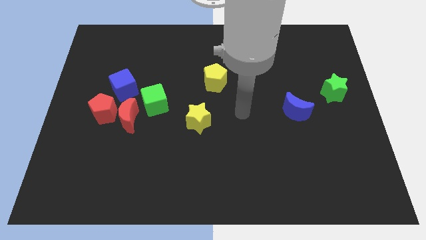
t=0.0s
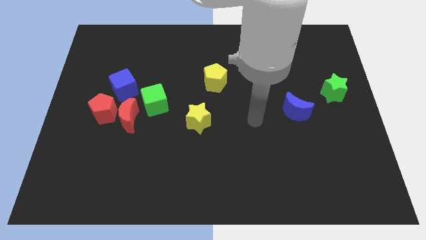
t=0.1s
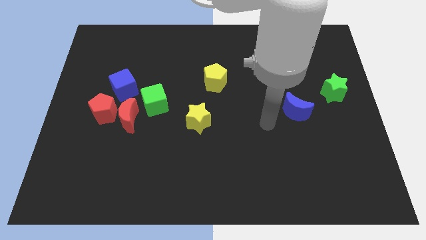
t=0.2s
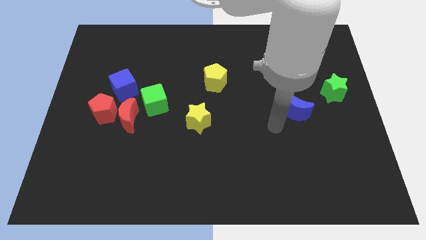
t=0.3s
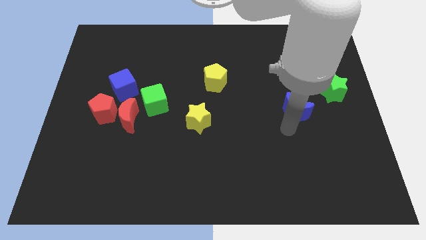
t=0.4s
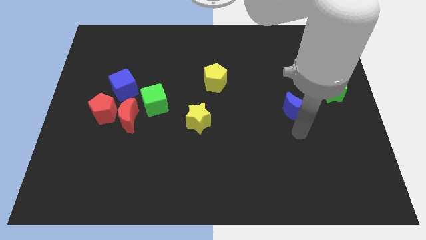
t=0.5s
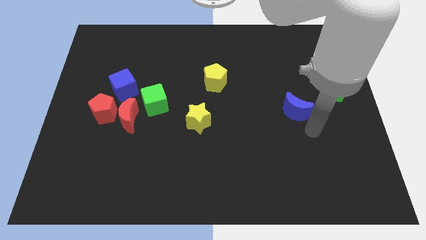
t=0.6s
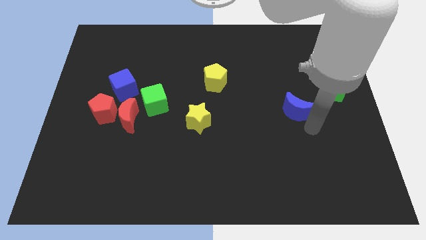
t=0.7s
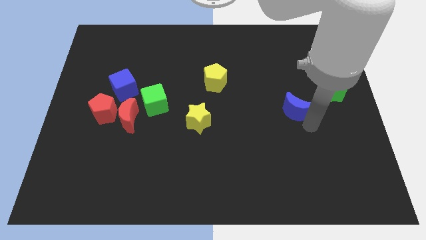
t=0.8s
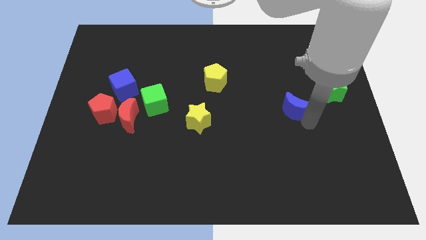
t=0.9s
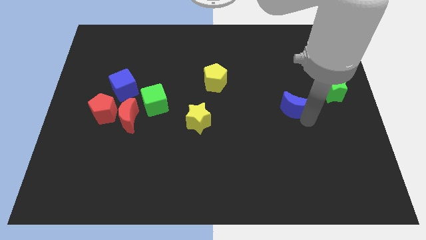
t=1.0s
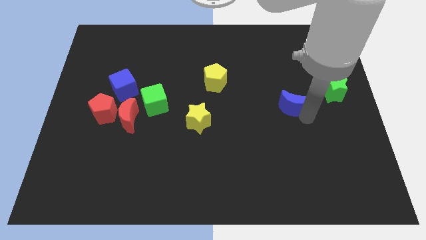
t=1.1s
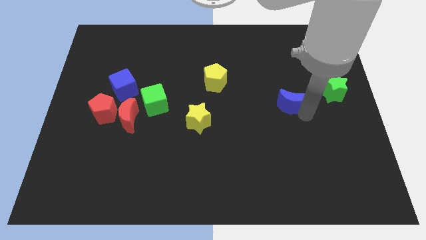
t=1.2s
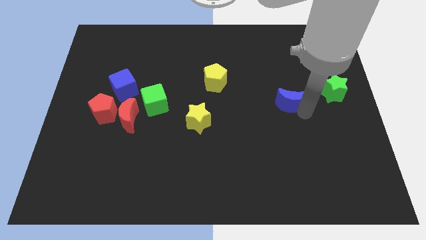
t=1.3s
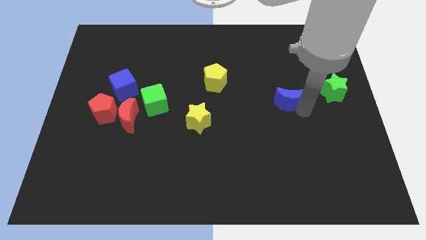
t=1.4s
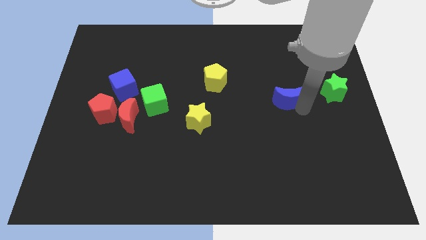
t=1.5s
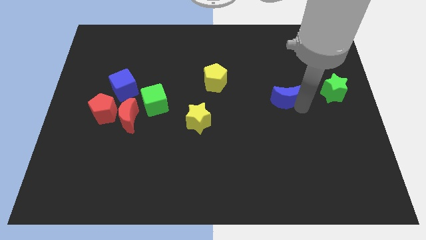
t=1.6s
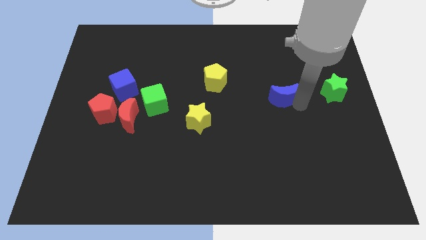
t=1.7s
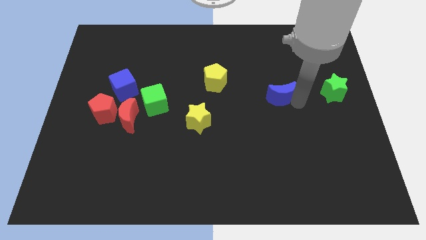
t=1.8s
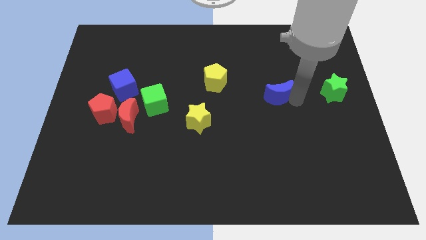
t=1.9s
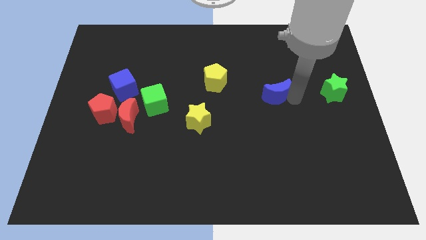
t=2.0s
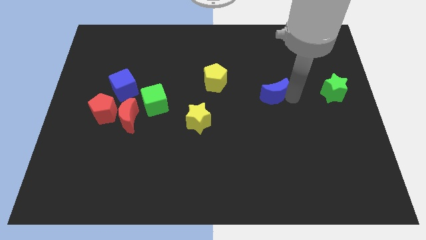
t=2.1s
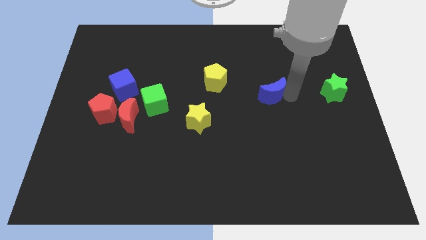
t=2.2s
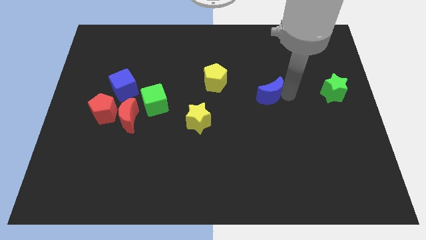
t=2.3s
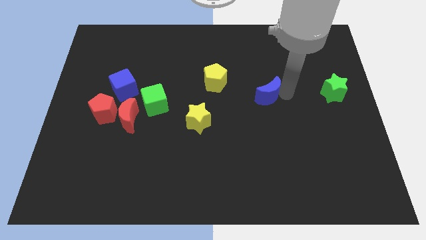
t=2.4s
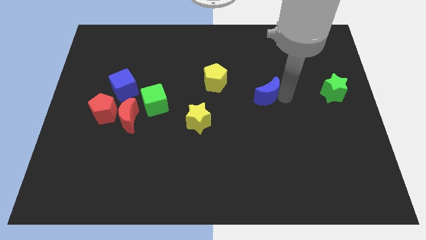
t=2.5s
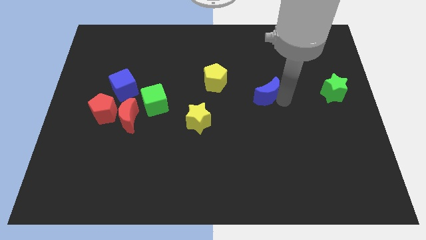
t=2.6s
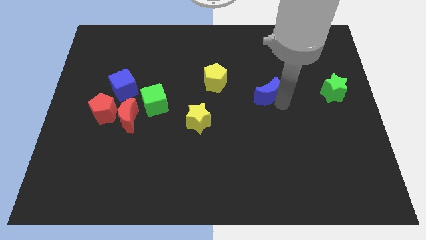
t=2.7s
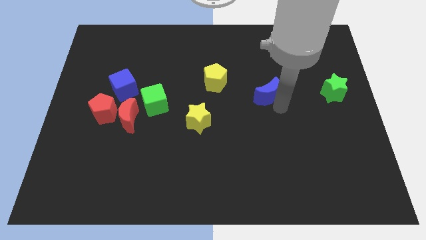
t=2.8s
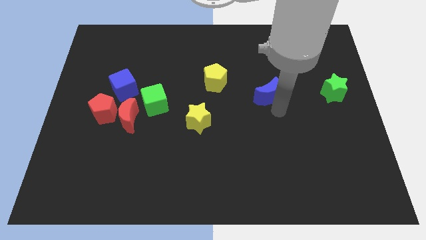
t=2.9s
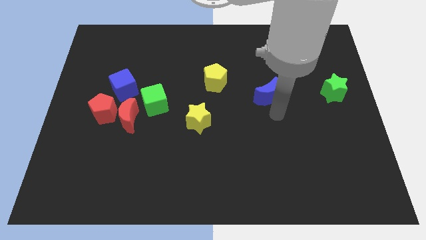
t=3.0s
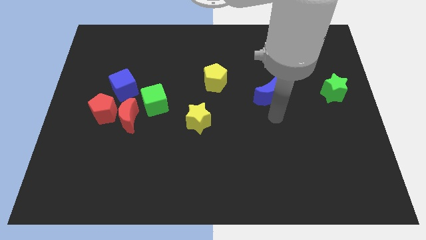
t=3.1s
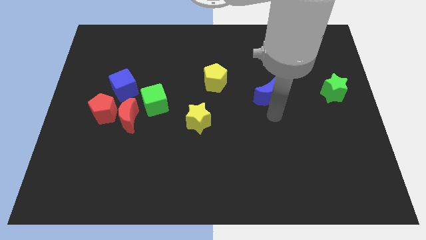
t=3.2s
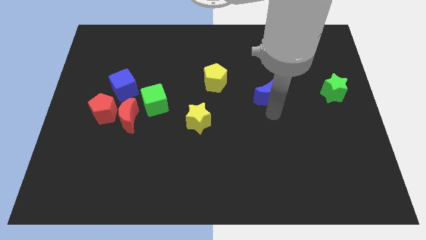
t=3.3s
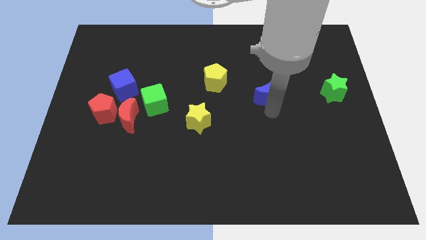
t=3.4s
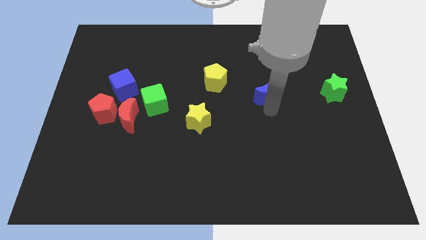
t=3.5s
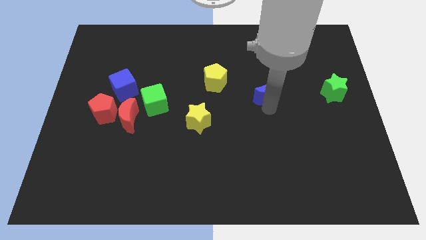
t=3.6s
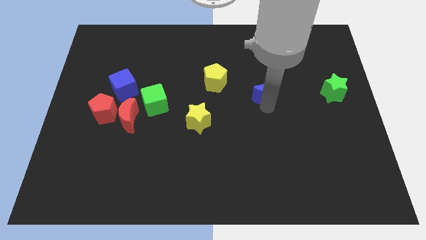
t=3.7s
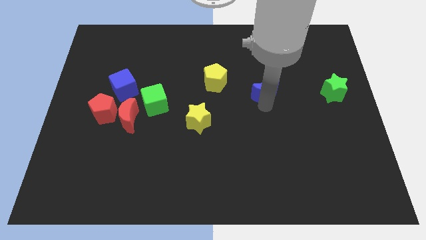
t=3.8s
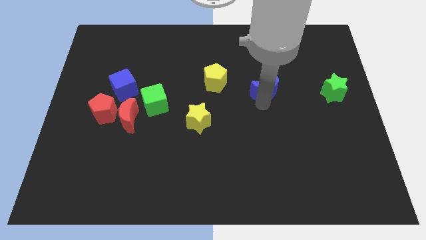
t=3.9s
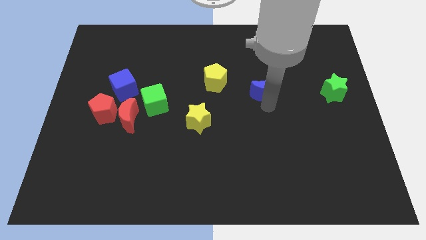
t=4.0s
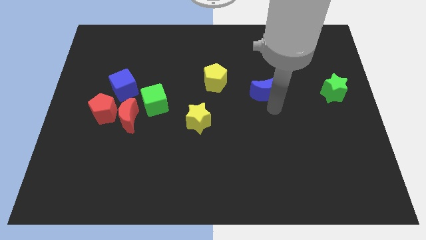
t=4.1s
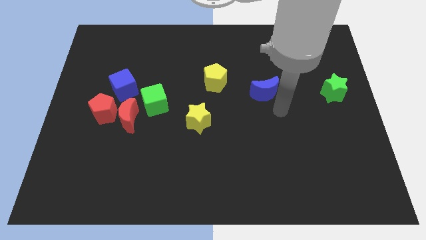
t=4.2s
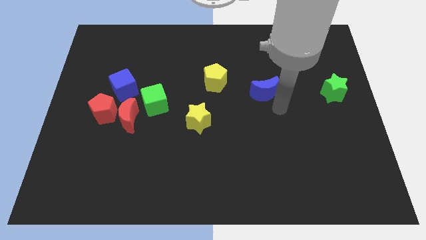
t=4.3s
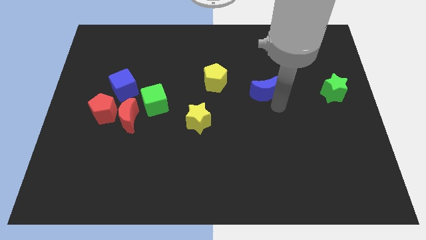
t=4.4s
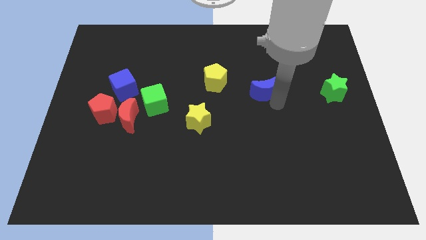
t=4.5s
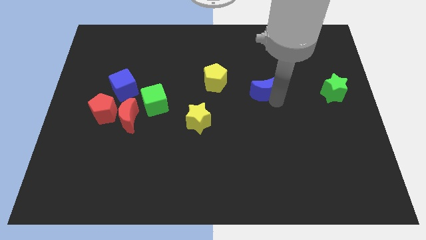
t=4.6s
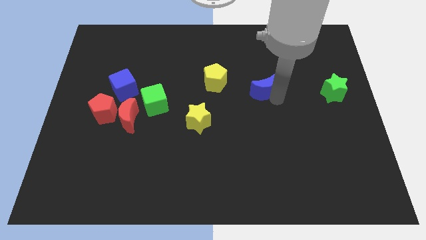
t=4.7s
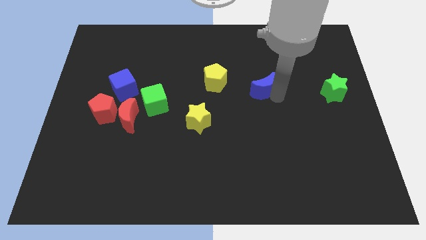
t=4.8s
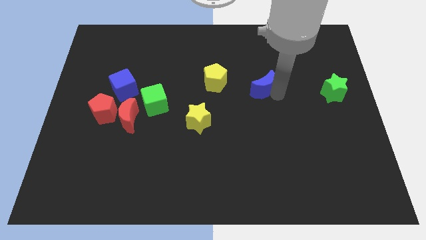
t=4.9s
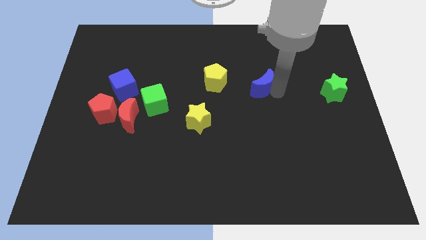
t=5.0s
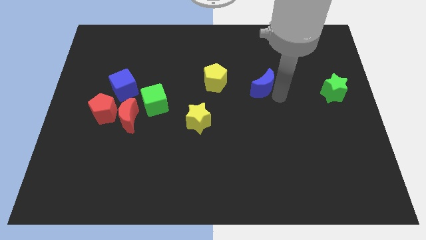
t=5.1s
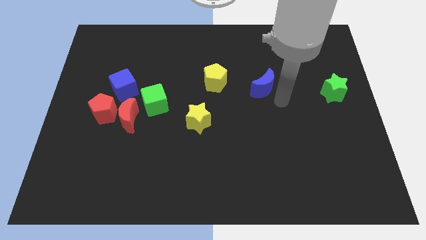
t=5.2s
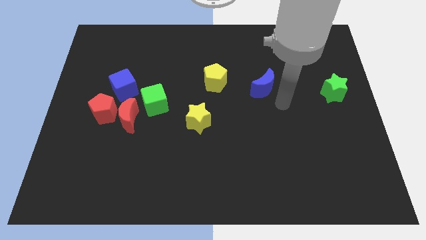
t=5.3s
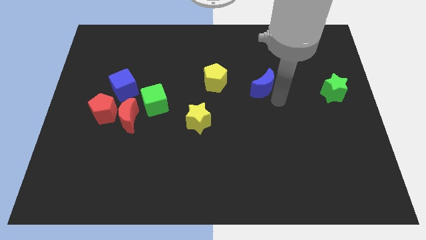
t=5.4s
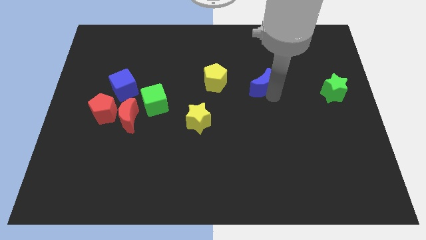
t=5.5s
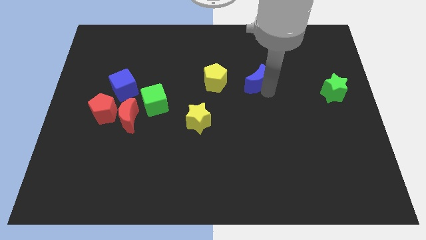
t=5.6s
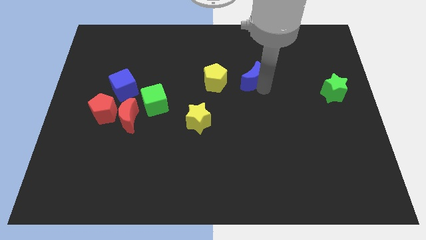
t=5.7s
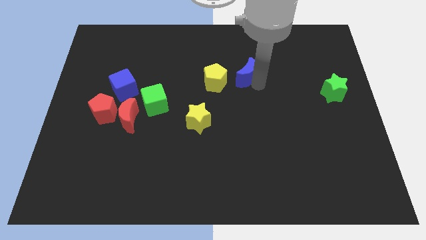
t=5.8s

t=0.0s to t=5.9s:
slide the blue moon to the top right side of the yellow pentagon

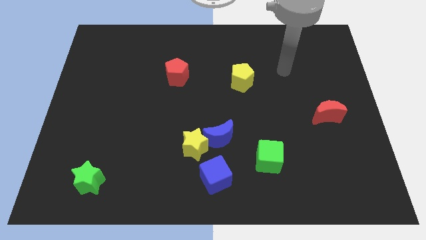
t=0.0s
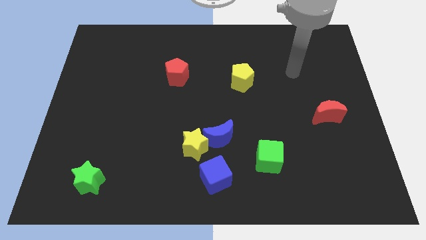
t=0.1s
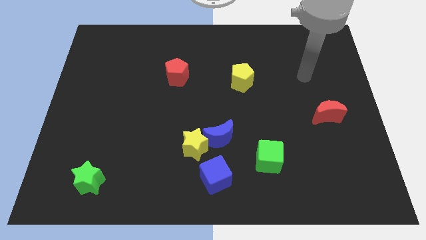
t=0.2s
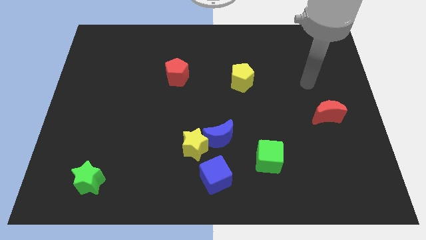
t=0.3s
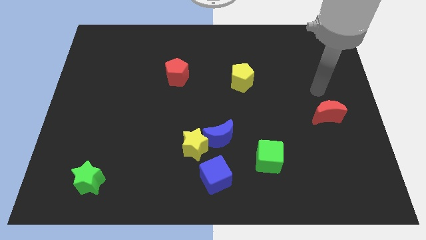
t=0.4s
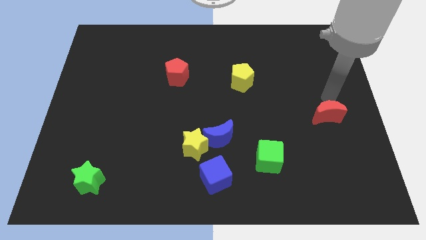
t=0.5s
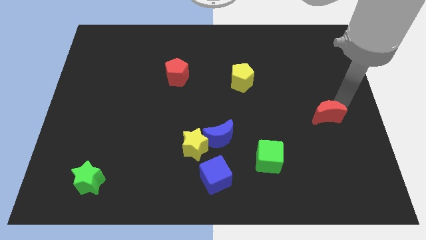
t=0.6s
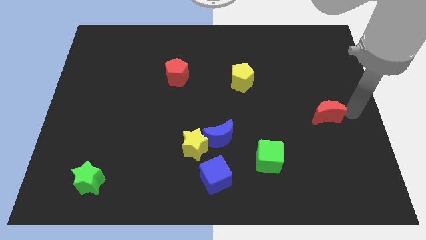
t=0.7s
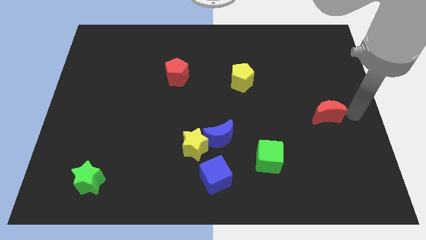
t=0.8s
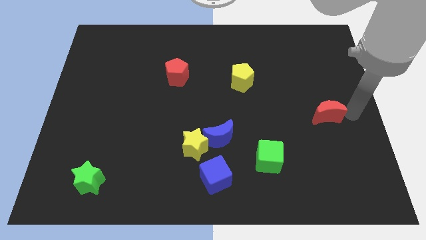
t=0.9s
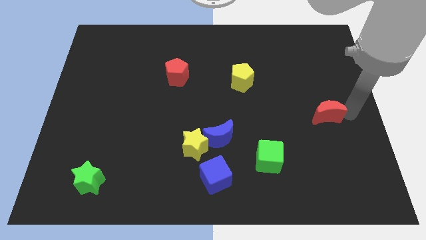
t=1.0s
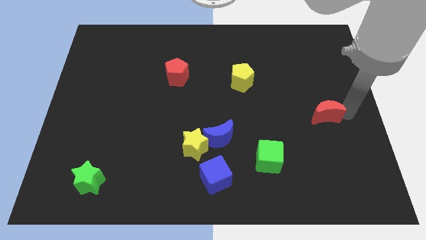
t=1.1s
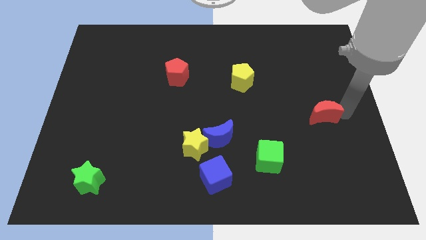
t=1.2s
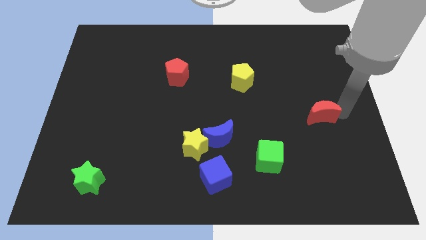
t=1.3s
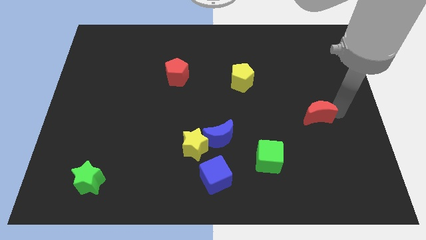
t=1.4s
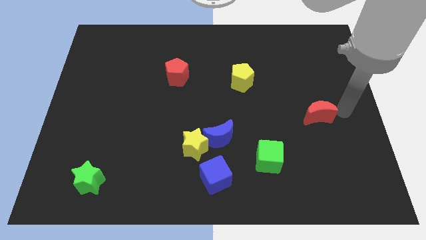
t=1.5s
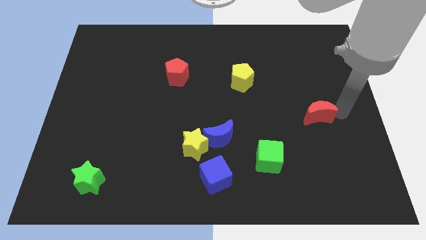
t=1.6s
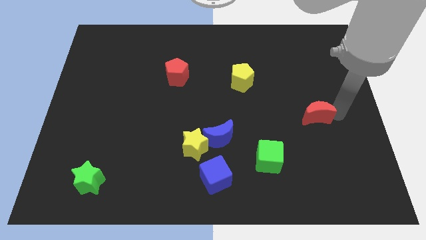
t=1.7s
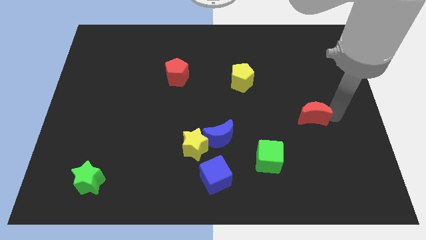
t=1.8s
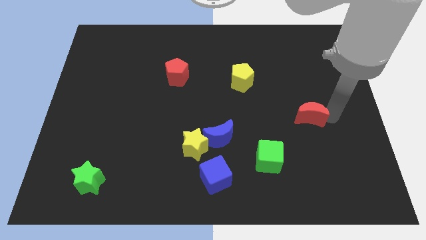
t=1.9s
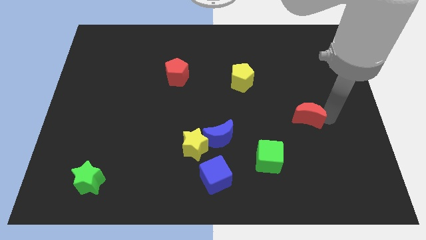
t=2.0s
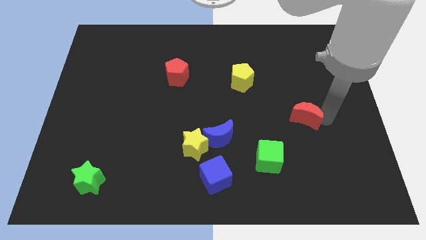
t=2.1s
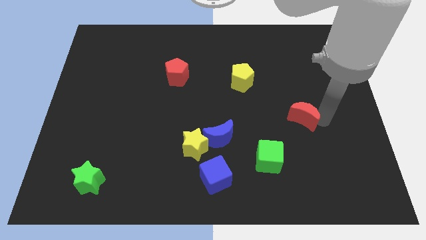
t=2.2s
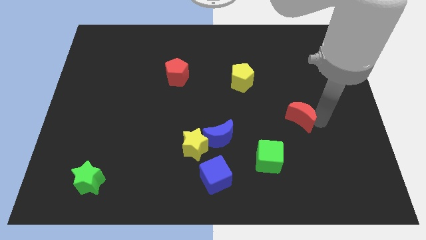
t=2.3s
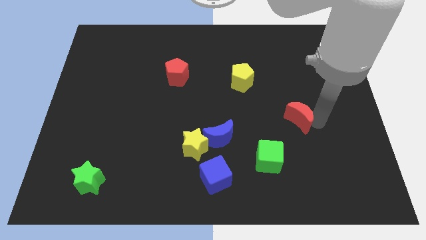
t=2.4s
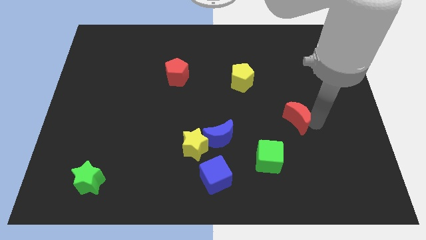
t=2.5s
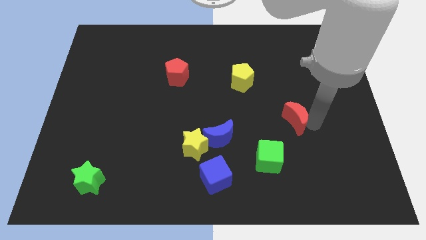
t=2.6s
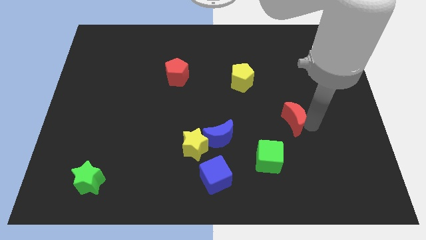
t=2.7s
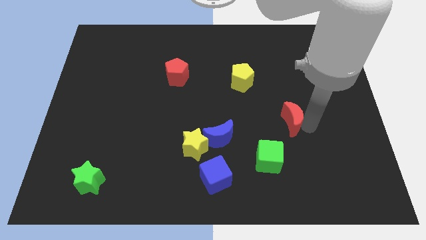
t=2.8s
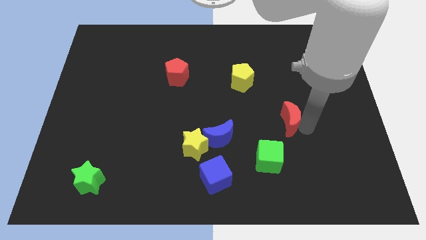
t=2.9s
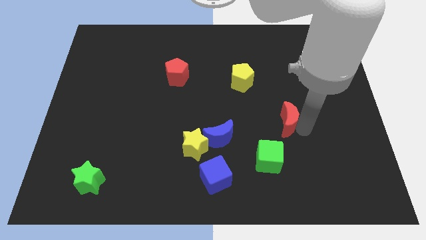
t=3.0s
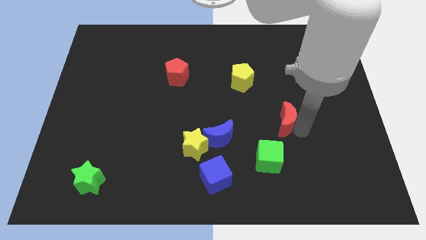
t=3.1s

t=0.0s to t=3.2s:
push the red moon to the top of the green cube
